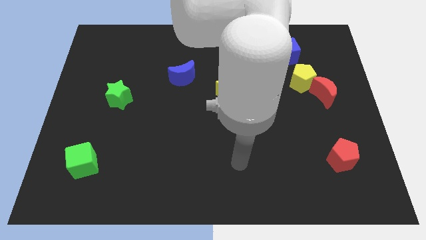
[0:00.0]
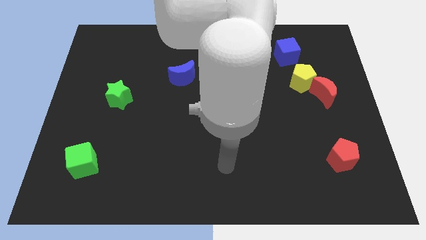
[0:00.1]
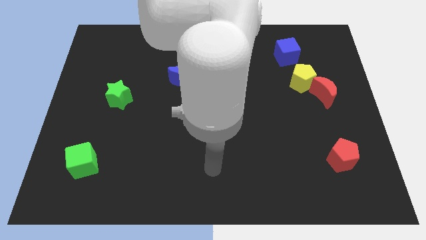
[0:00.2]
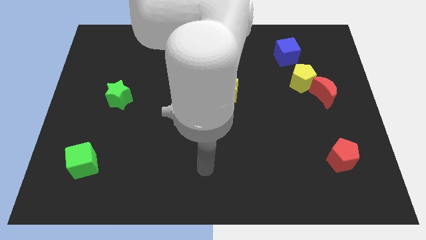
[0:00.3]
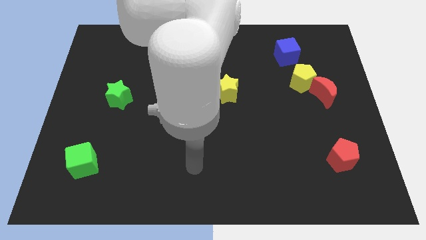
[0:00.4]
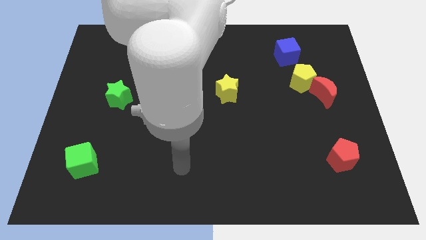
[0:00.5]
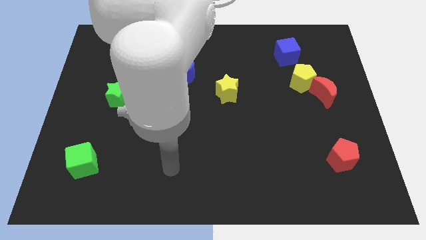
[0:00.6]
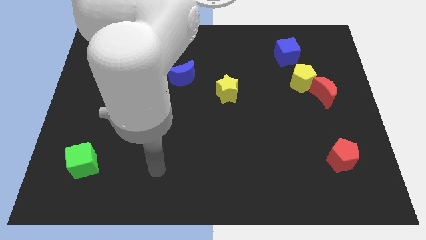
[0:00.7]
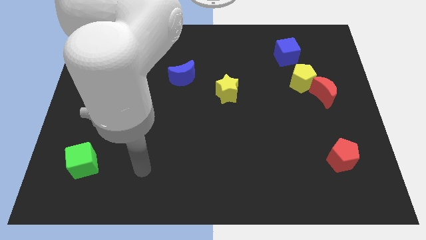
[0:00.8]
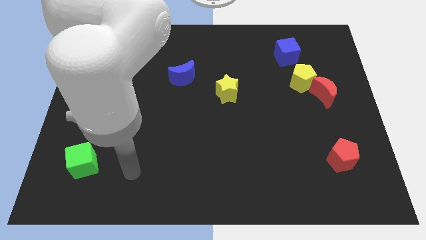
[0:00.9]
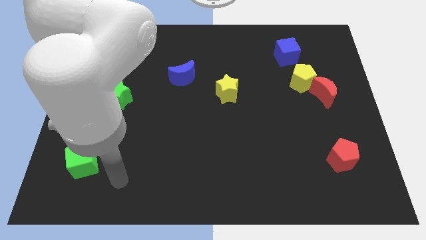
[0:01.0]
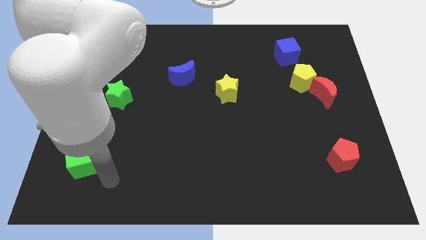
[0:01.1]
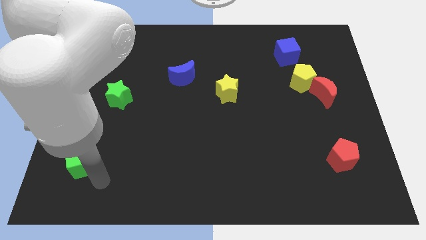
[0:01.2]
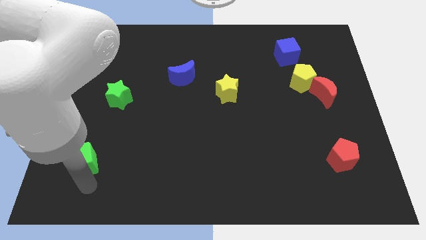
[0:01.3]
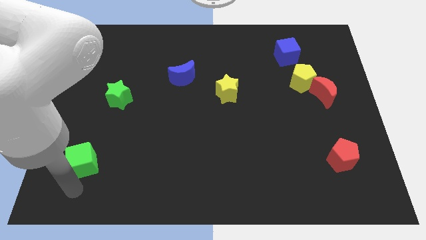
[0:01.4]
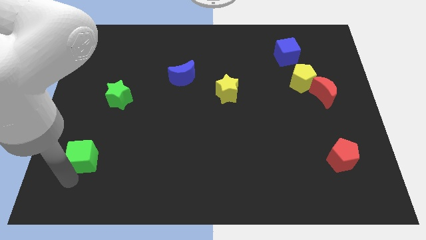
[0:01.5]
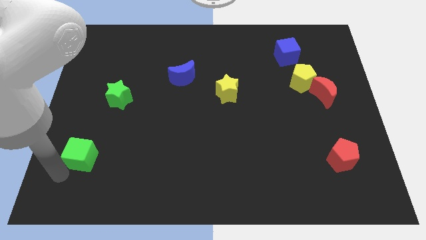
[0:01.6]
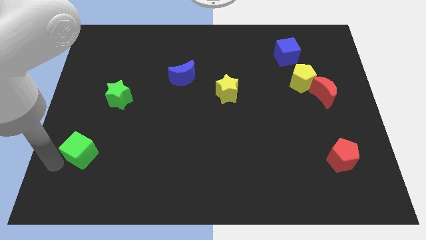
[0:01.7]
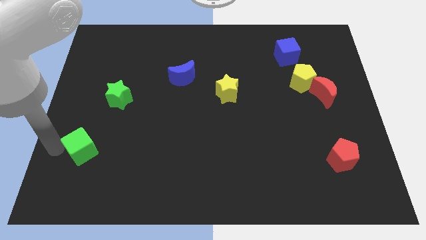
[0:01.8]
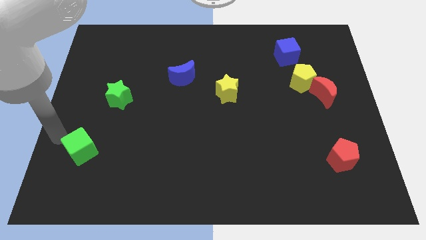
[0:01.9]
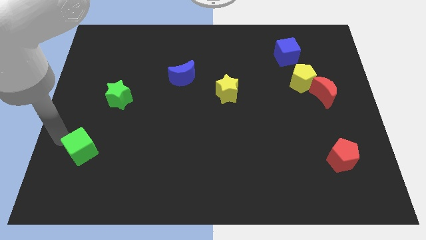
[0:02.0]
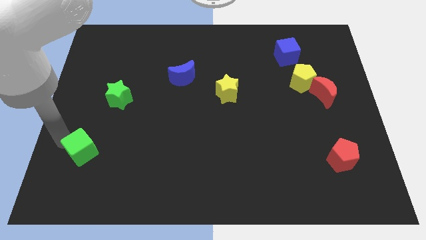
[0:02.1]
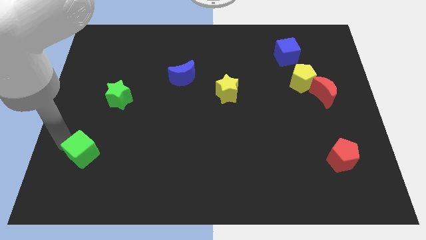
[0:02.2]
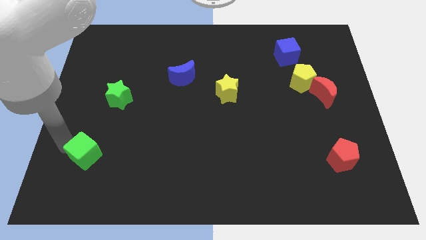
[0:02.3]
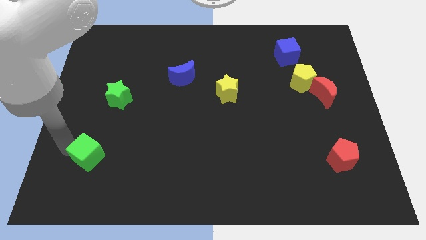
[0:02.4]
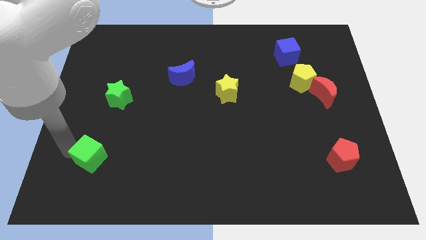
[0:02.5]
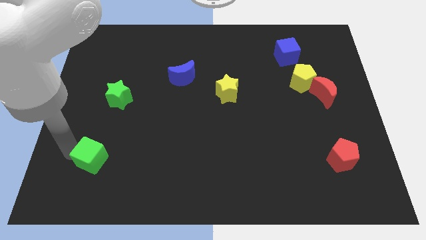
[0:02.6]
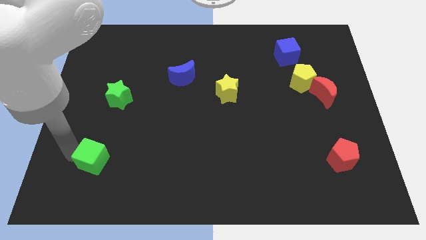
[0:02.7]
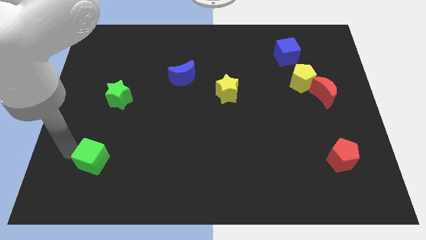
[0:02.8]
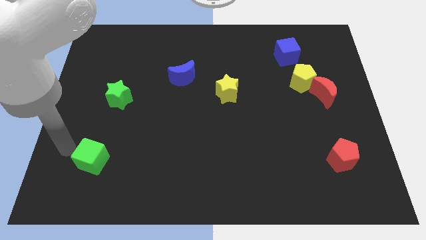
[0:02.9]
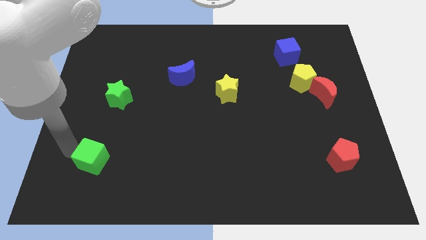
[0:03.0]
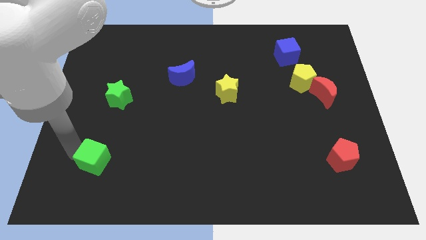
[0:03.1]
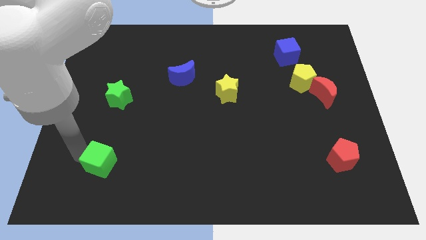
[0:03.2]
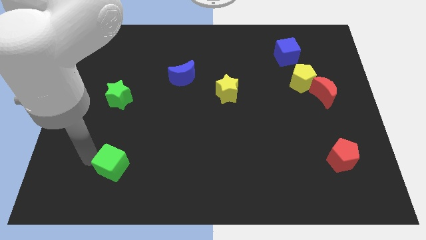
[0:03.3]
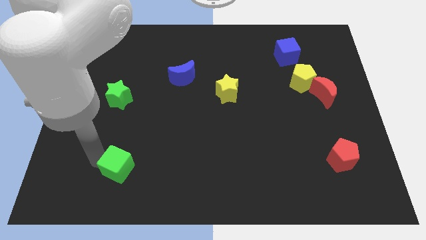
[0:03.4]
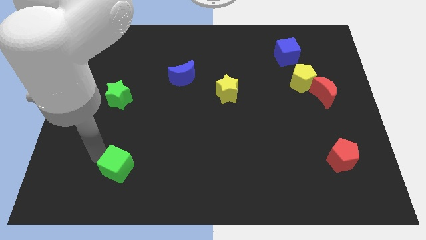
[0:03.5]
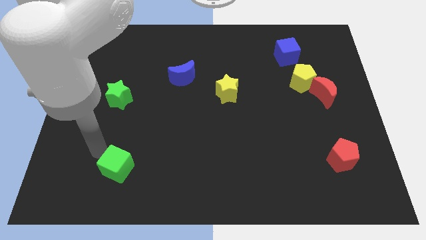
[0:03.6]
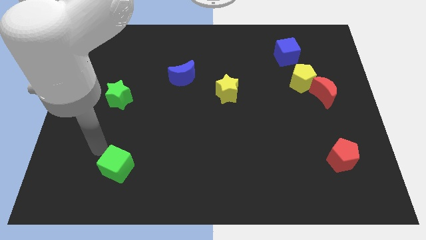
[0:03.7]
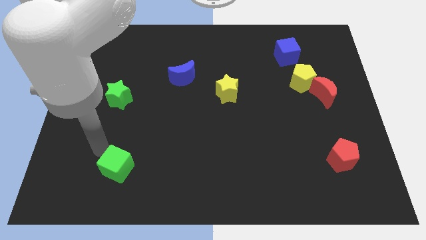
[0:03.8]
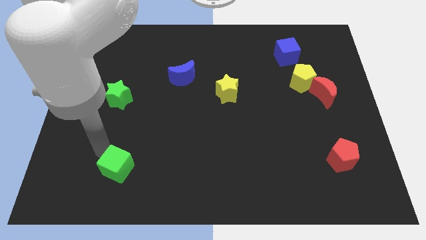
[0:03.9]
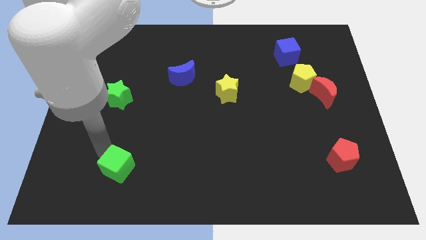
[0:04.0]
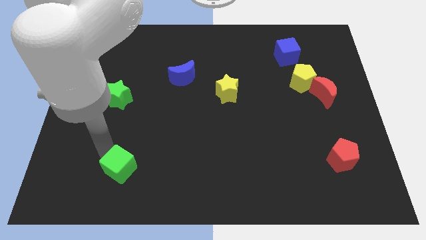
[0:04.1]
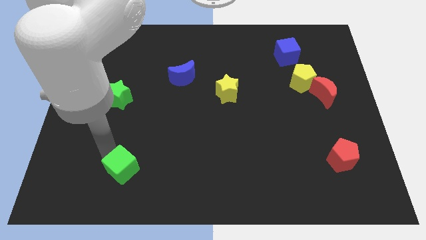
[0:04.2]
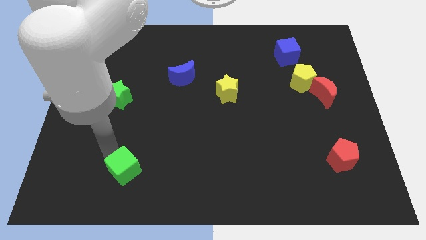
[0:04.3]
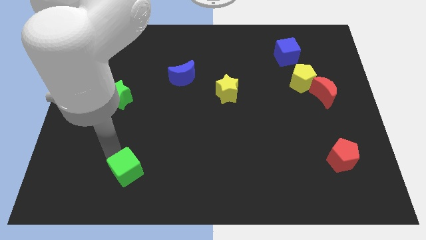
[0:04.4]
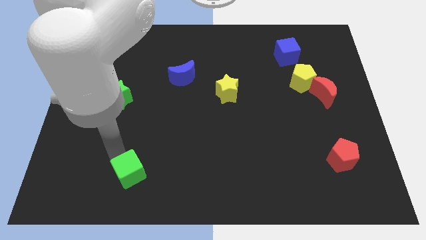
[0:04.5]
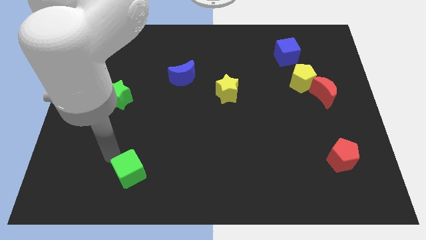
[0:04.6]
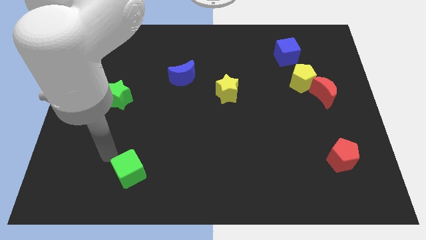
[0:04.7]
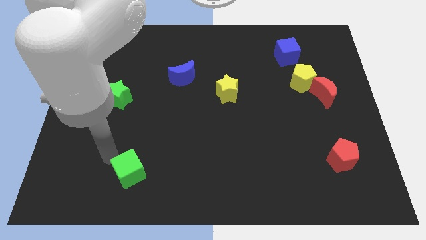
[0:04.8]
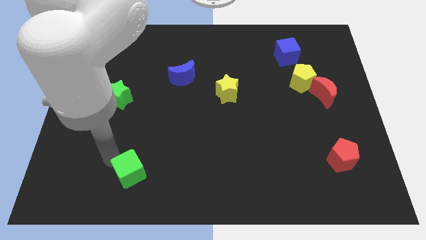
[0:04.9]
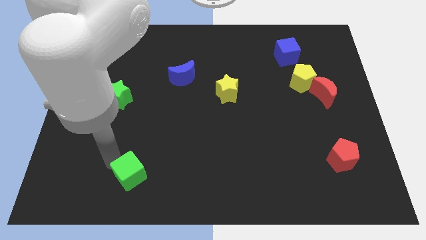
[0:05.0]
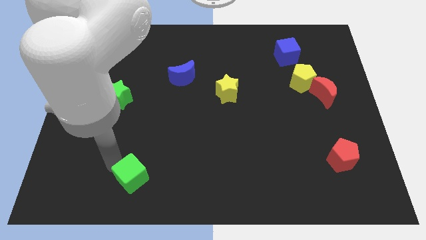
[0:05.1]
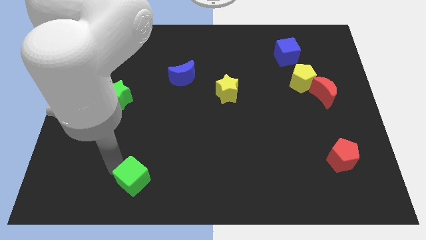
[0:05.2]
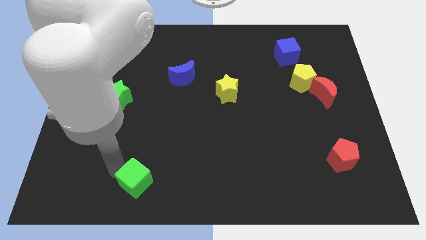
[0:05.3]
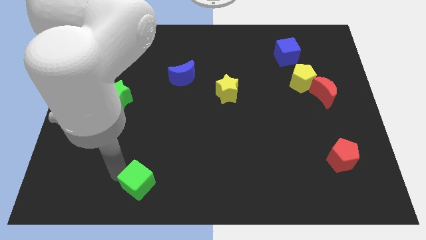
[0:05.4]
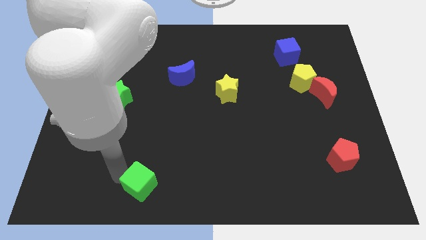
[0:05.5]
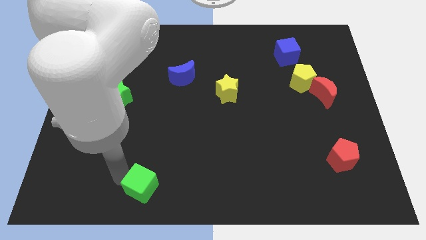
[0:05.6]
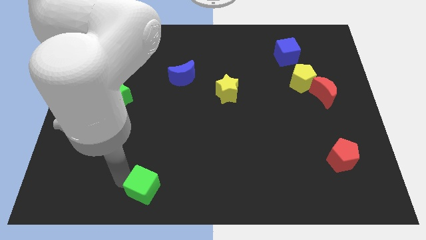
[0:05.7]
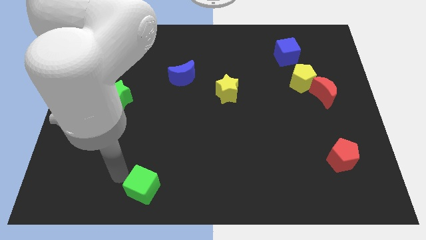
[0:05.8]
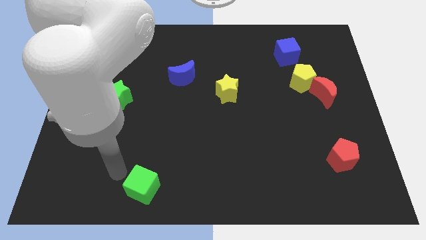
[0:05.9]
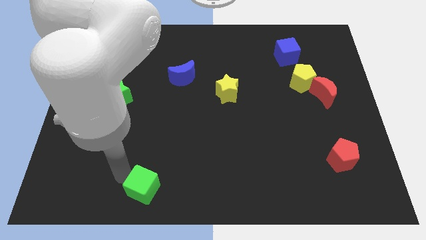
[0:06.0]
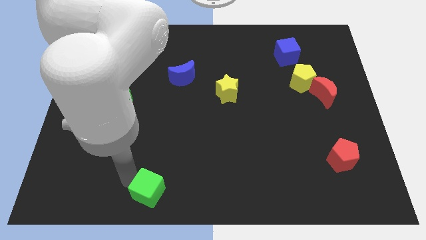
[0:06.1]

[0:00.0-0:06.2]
put the green cube to the bottom side

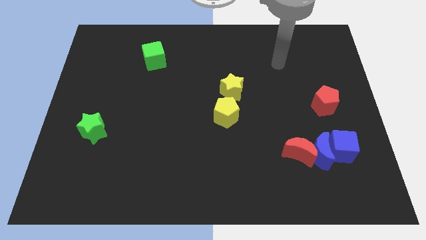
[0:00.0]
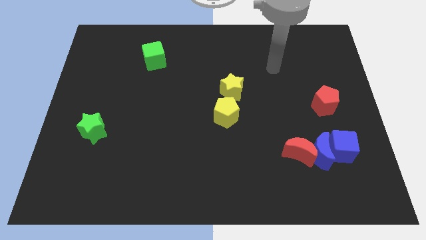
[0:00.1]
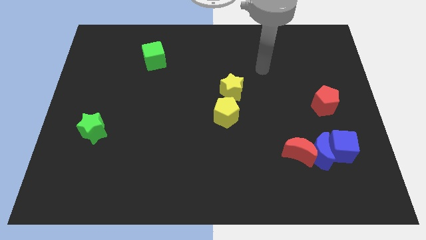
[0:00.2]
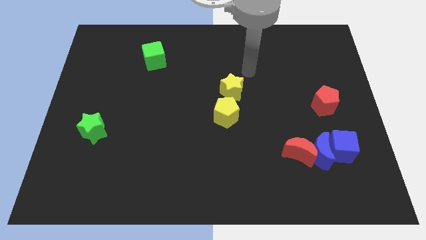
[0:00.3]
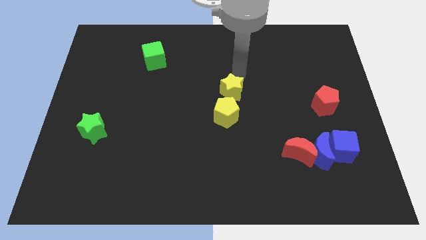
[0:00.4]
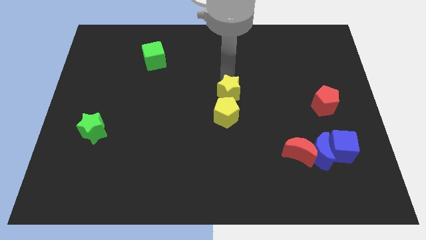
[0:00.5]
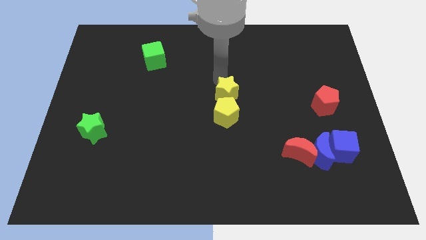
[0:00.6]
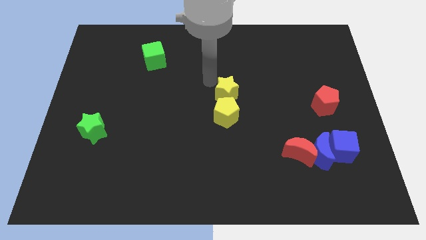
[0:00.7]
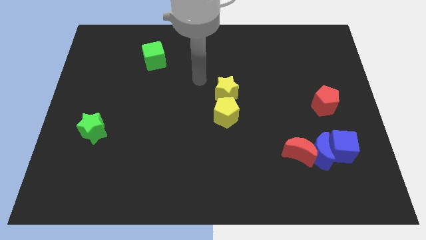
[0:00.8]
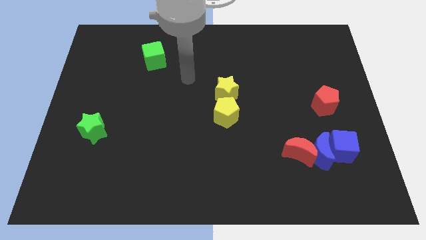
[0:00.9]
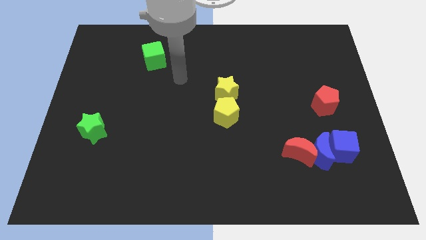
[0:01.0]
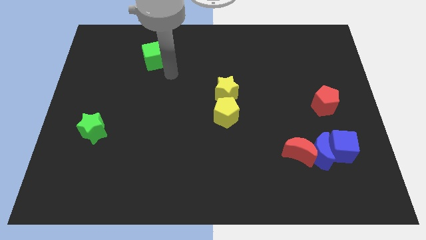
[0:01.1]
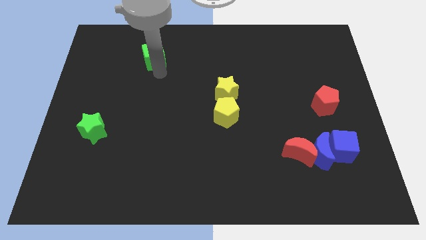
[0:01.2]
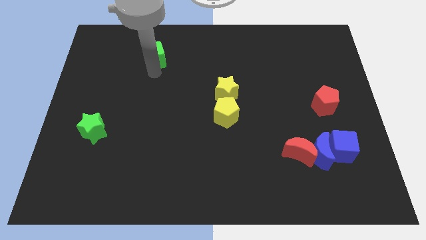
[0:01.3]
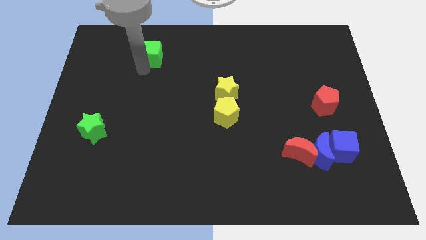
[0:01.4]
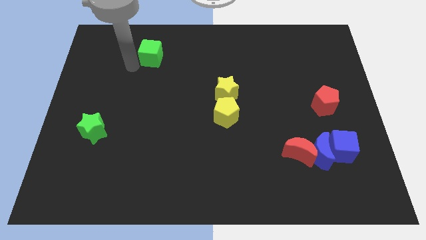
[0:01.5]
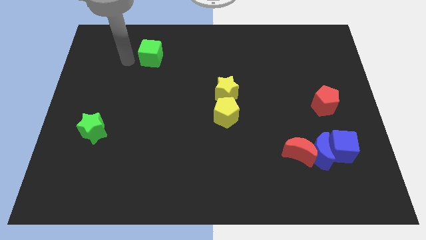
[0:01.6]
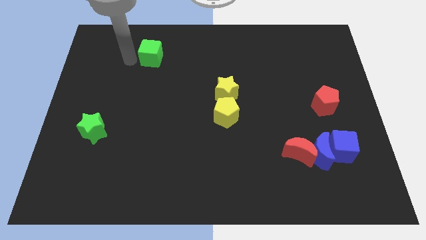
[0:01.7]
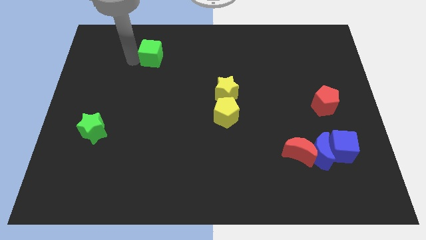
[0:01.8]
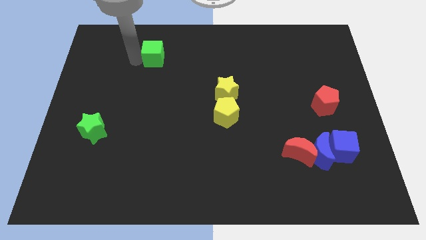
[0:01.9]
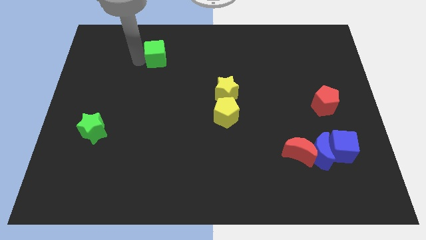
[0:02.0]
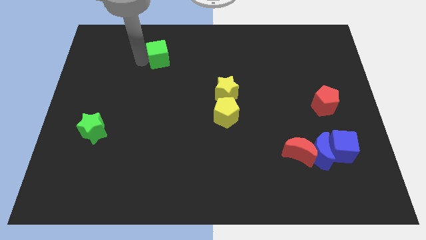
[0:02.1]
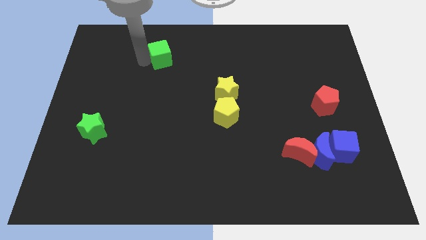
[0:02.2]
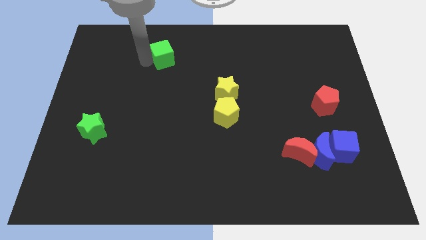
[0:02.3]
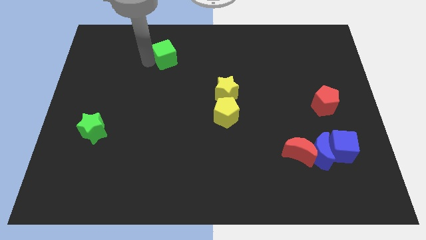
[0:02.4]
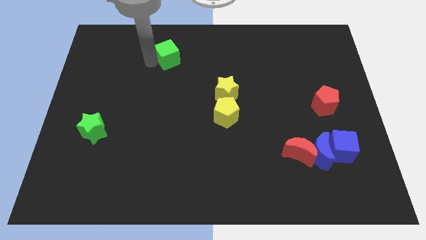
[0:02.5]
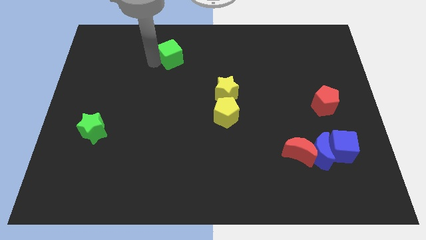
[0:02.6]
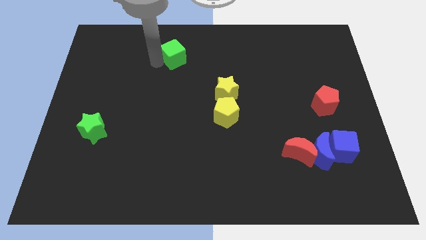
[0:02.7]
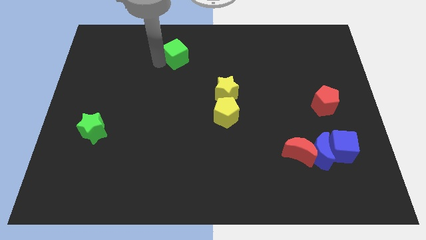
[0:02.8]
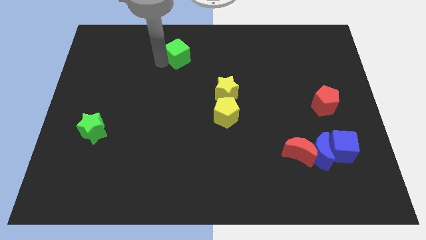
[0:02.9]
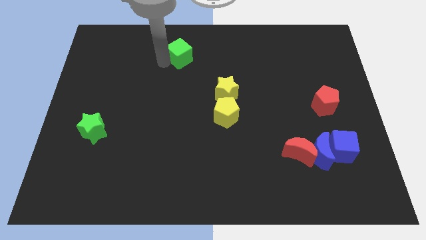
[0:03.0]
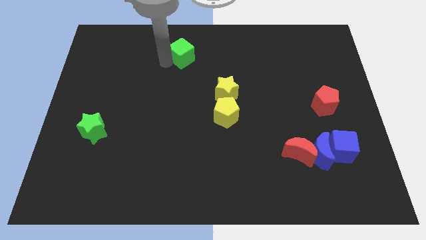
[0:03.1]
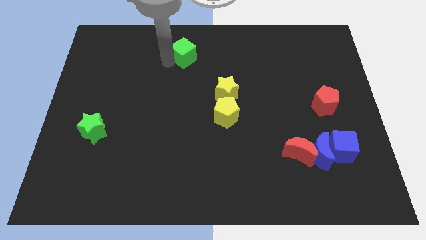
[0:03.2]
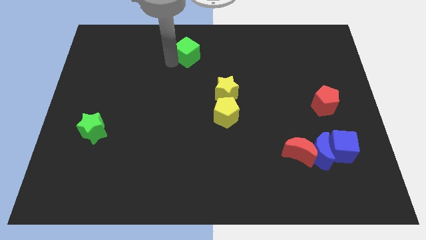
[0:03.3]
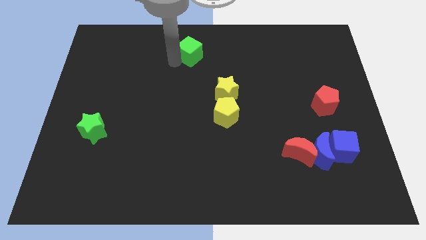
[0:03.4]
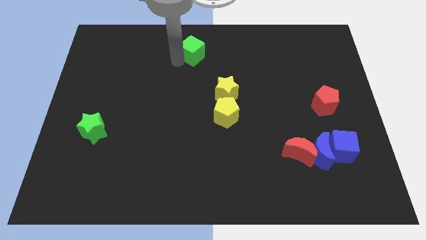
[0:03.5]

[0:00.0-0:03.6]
slide the green cube to the top side
